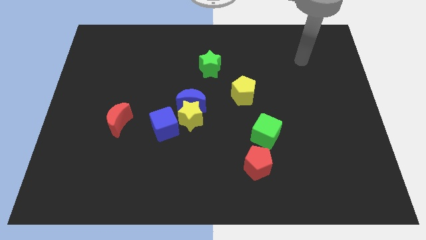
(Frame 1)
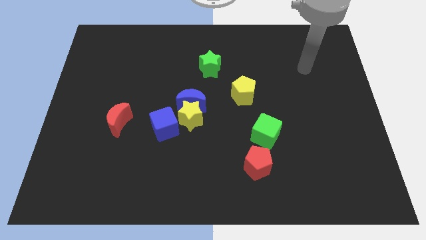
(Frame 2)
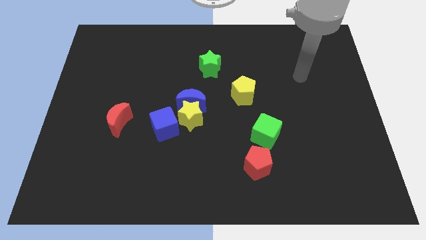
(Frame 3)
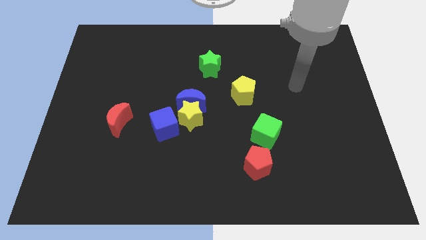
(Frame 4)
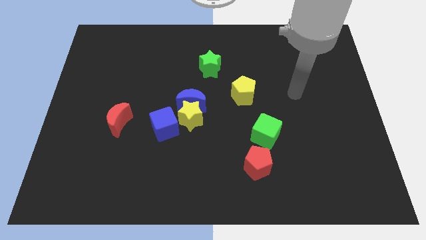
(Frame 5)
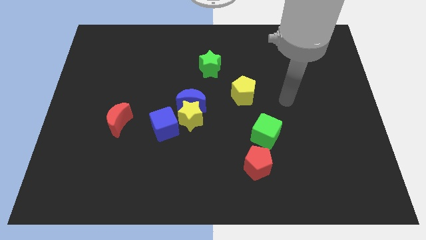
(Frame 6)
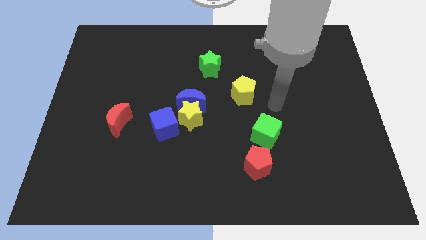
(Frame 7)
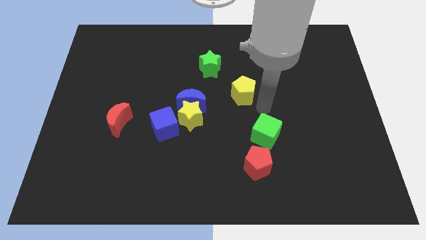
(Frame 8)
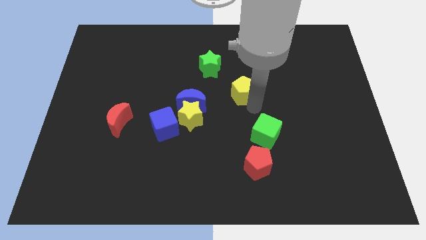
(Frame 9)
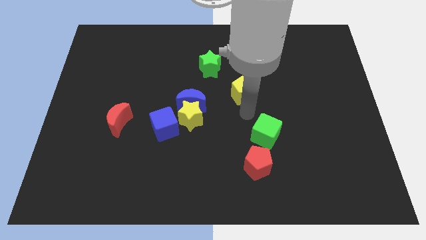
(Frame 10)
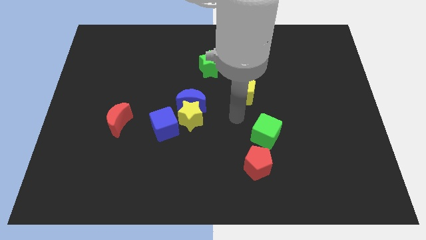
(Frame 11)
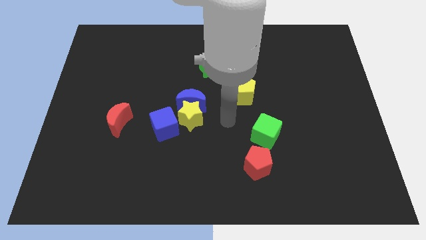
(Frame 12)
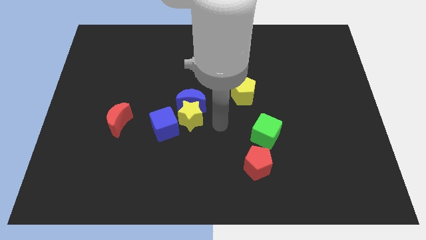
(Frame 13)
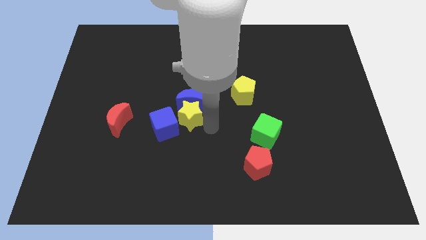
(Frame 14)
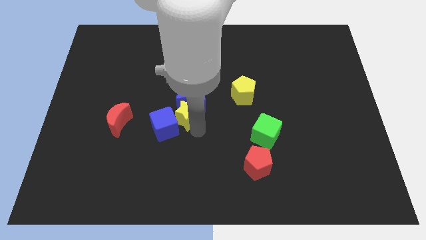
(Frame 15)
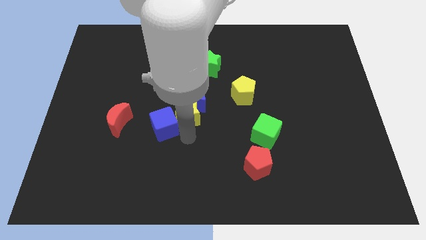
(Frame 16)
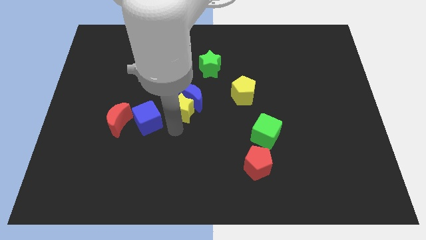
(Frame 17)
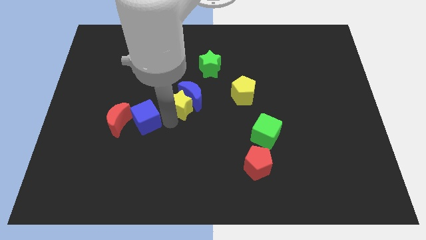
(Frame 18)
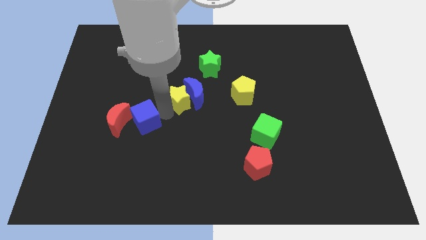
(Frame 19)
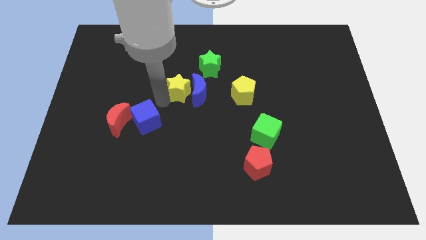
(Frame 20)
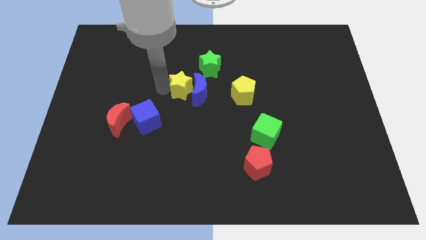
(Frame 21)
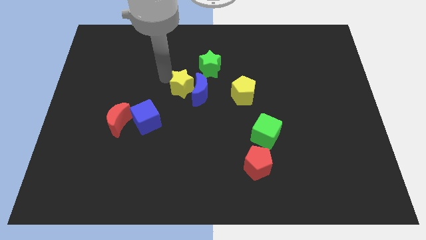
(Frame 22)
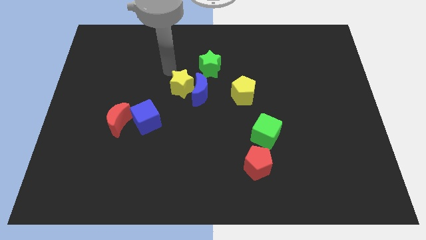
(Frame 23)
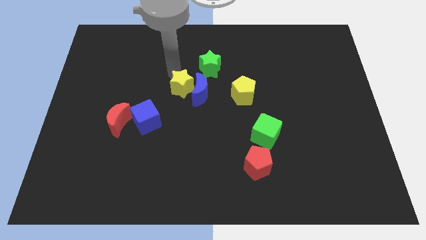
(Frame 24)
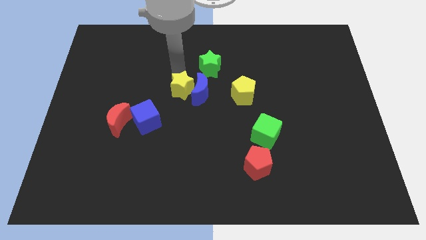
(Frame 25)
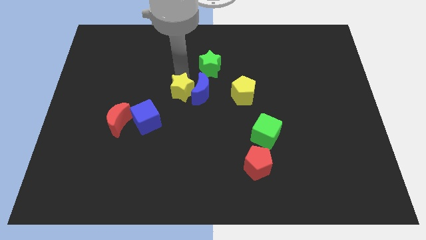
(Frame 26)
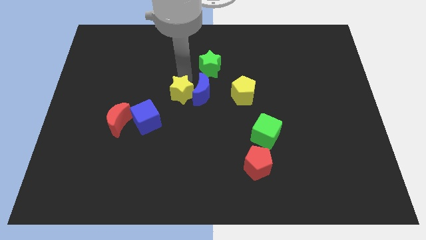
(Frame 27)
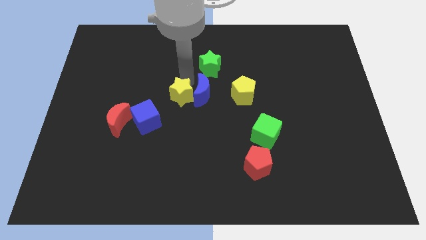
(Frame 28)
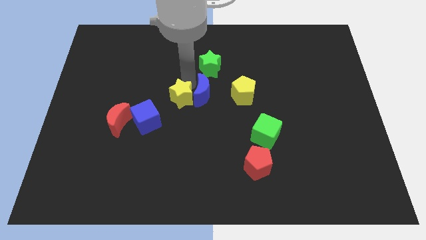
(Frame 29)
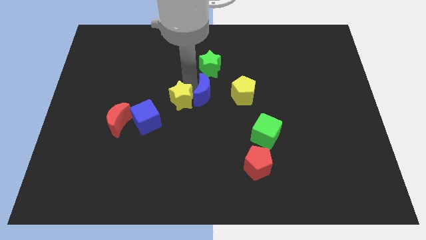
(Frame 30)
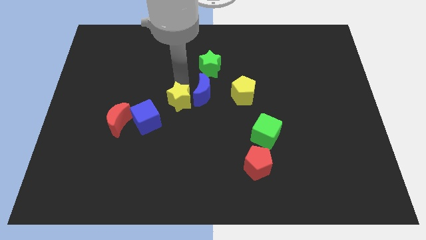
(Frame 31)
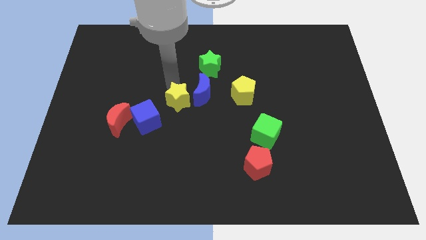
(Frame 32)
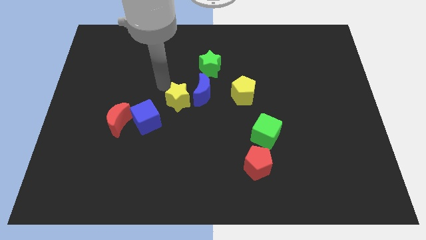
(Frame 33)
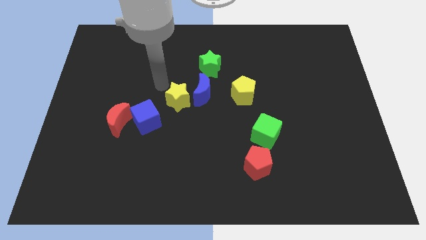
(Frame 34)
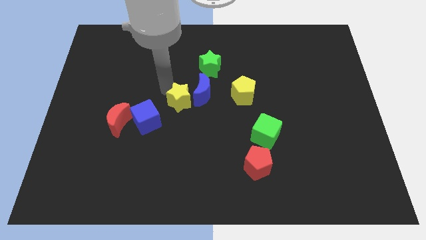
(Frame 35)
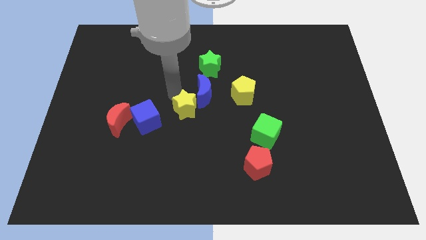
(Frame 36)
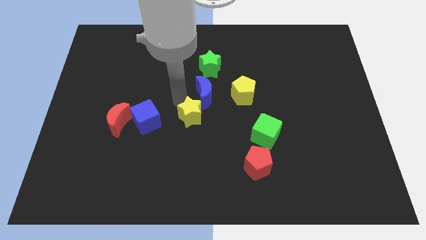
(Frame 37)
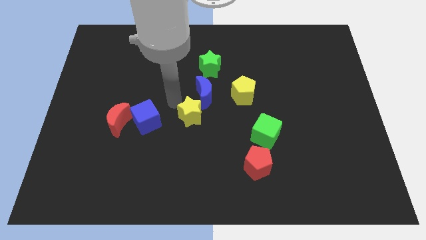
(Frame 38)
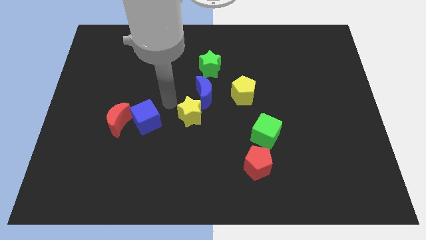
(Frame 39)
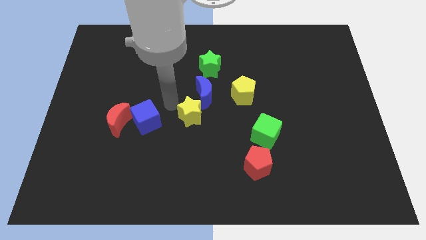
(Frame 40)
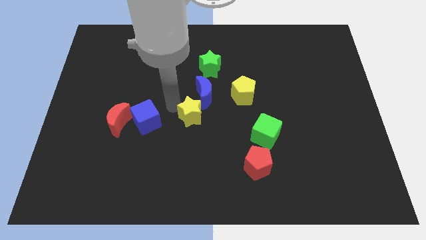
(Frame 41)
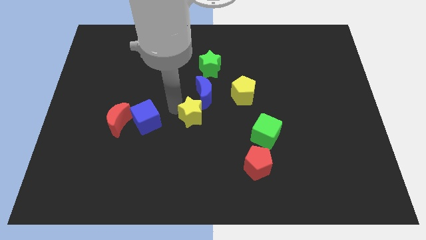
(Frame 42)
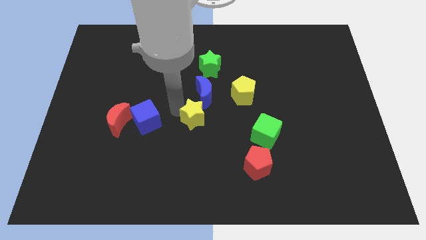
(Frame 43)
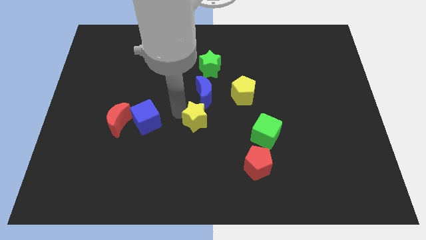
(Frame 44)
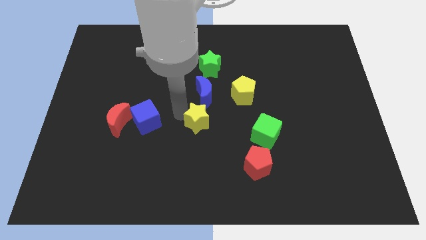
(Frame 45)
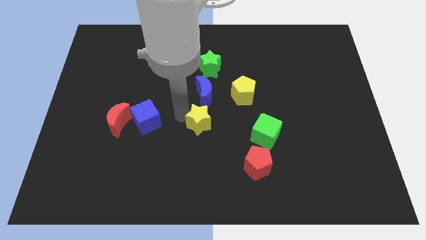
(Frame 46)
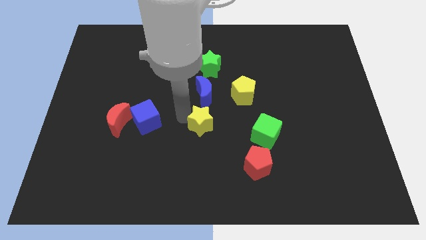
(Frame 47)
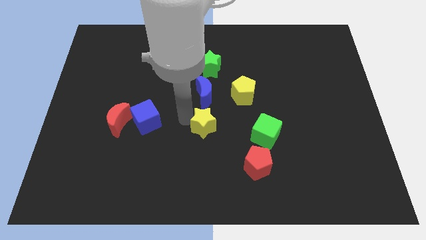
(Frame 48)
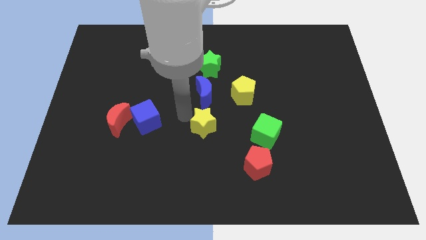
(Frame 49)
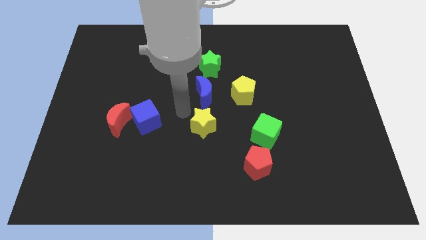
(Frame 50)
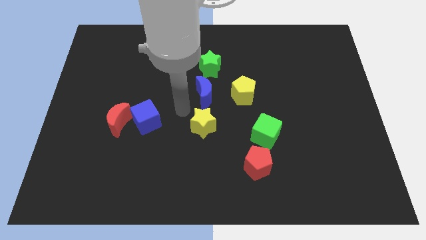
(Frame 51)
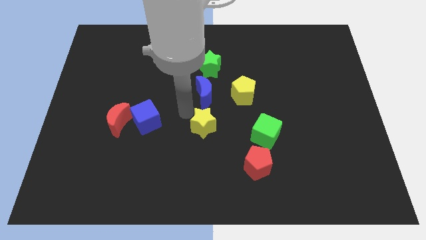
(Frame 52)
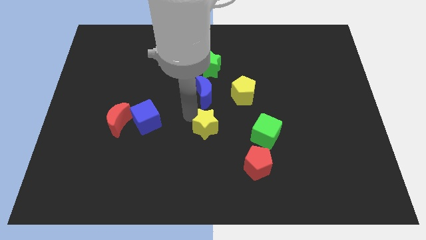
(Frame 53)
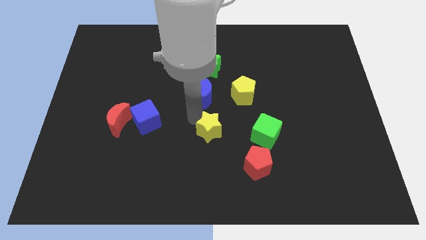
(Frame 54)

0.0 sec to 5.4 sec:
move the yellow star away from the blue moon and blue cube

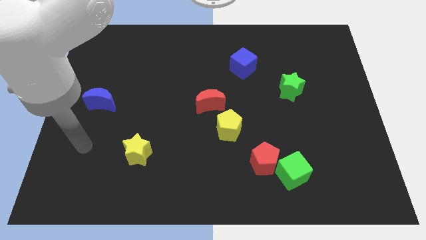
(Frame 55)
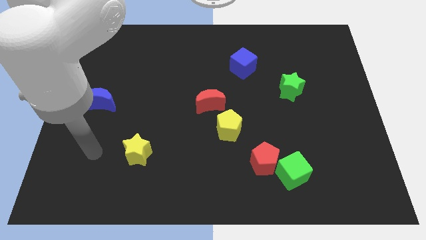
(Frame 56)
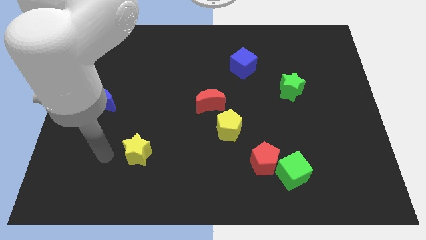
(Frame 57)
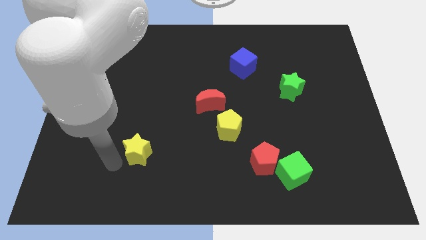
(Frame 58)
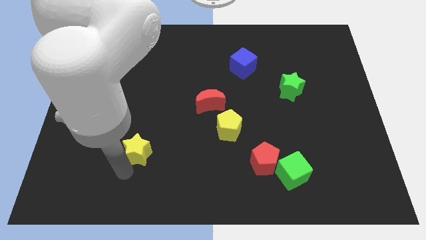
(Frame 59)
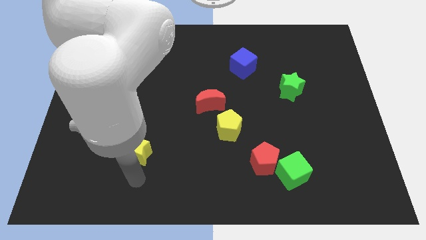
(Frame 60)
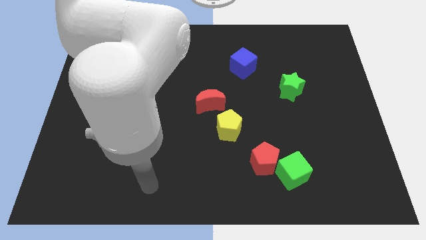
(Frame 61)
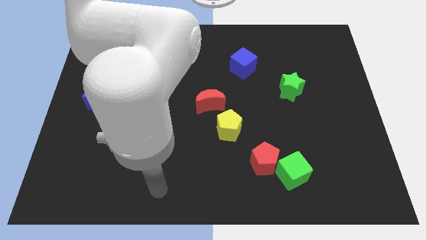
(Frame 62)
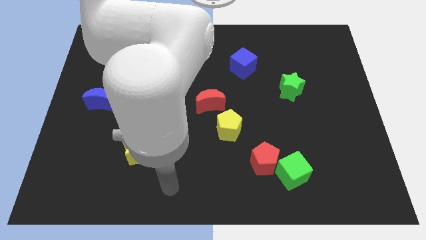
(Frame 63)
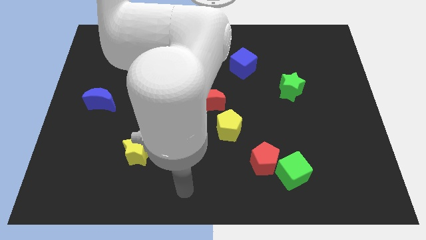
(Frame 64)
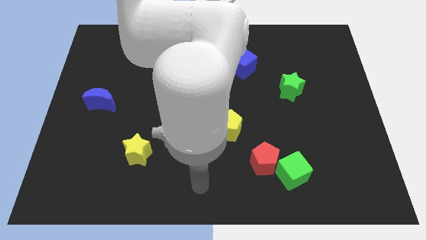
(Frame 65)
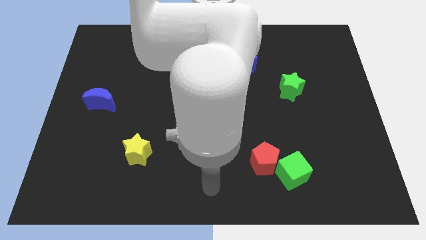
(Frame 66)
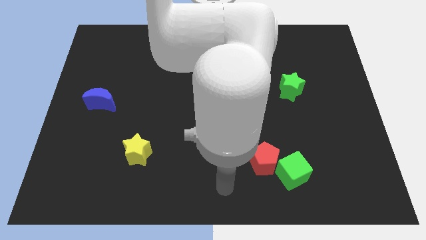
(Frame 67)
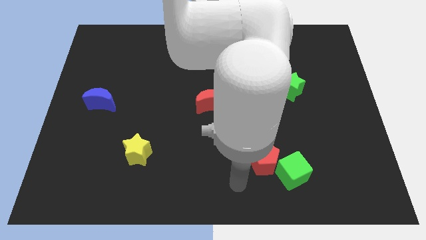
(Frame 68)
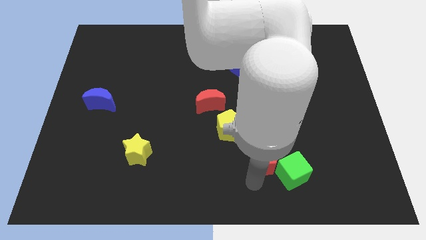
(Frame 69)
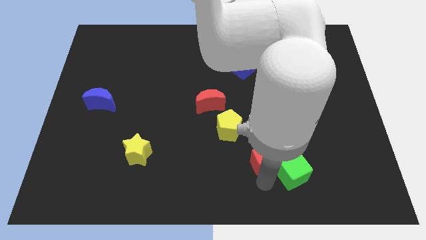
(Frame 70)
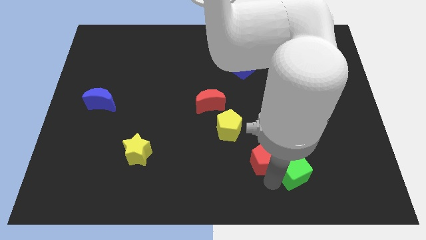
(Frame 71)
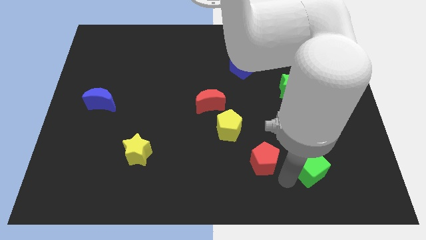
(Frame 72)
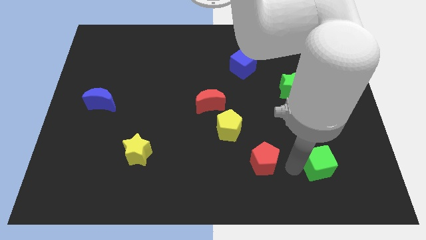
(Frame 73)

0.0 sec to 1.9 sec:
move the red pentagon away from the green cube

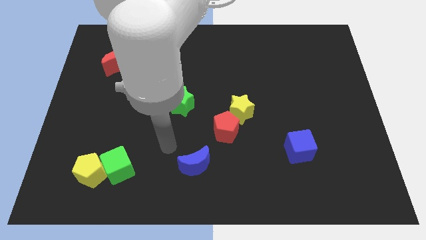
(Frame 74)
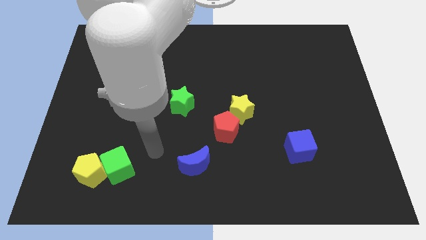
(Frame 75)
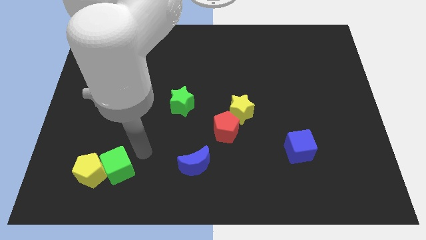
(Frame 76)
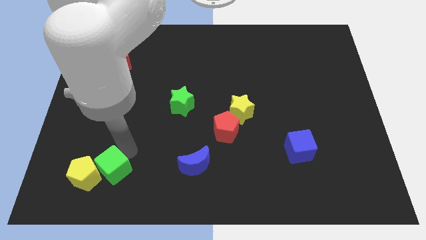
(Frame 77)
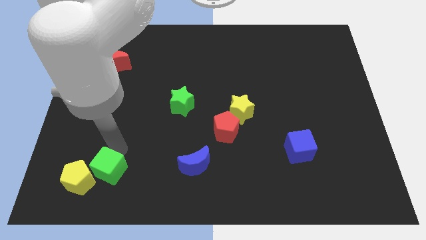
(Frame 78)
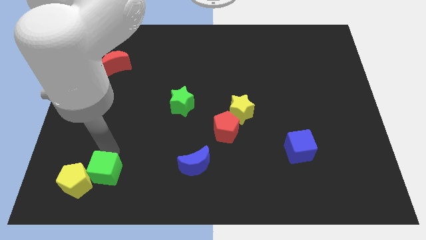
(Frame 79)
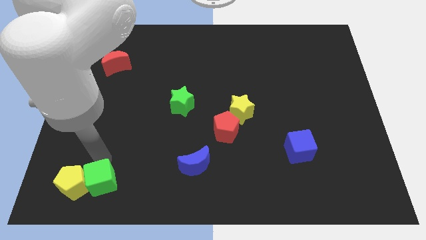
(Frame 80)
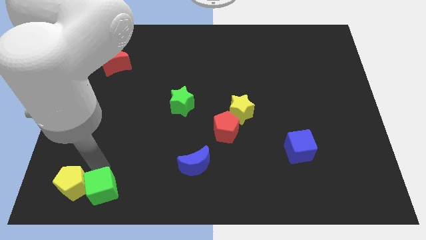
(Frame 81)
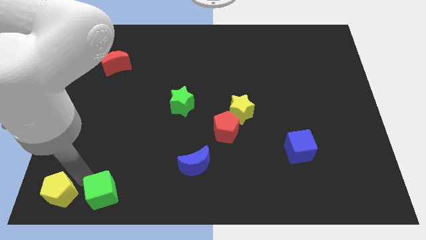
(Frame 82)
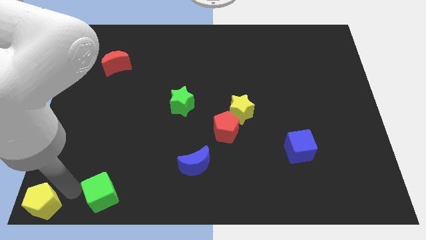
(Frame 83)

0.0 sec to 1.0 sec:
move the green cube away from the yellow pentagon

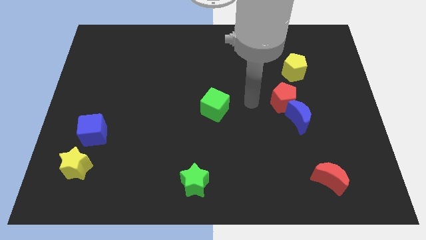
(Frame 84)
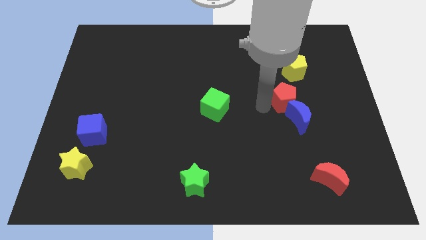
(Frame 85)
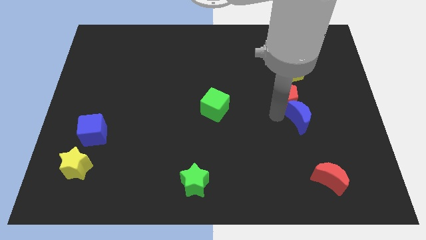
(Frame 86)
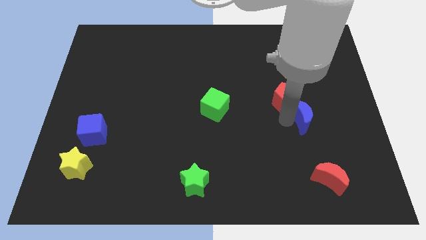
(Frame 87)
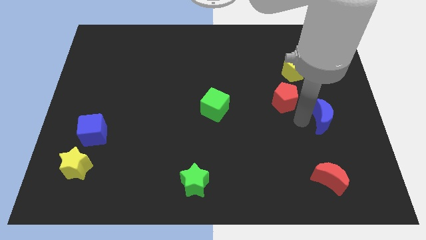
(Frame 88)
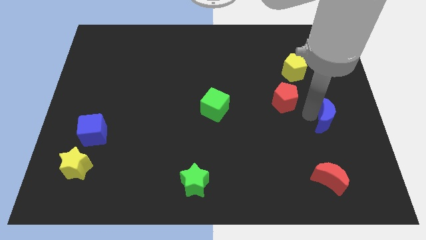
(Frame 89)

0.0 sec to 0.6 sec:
pull the red pentagon apart from the blue moon

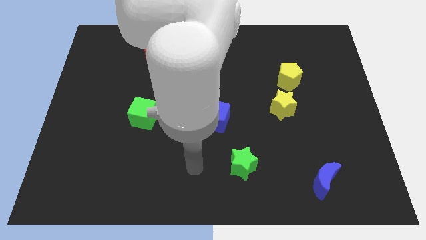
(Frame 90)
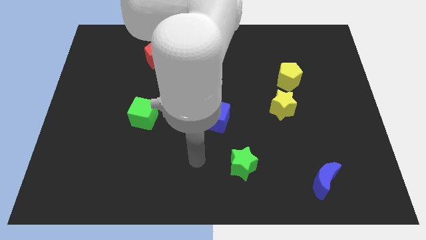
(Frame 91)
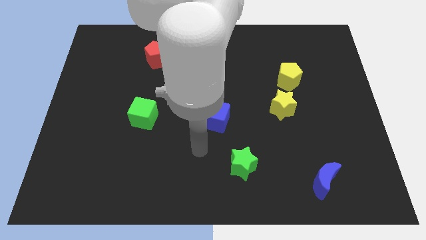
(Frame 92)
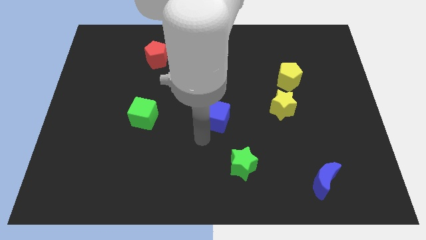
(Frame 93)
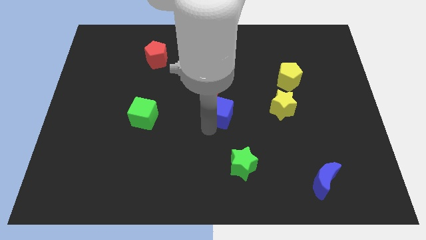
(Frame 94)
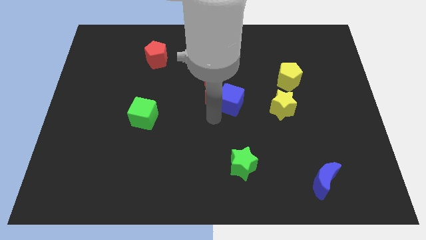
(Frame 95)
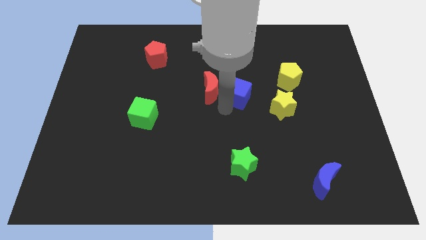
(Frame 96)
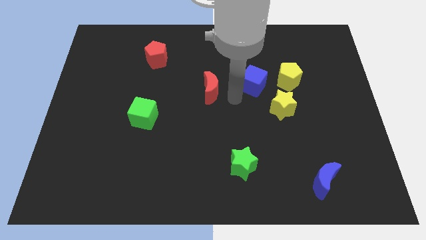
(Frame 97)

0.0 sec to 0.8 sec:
move the red moon away from the blue cube
